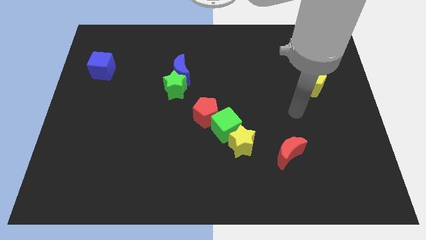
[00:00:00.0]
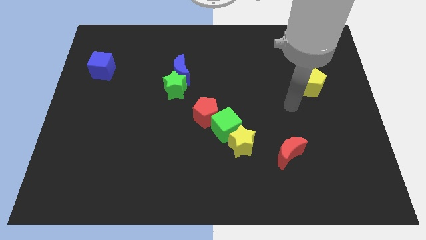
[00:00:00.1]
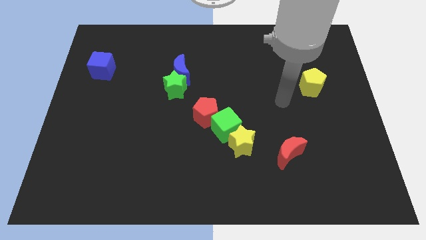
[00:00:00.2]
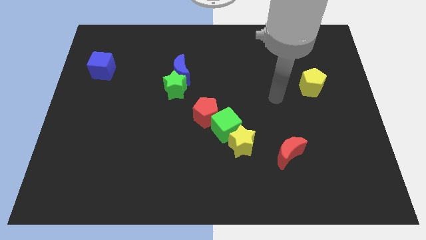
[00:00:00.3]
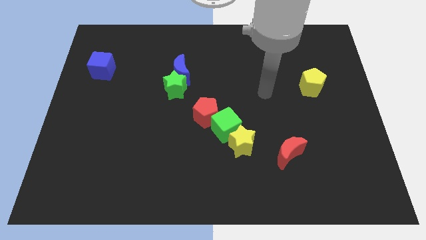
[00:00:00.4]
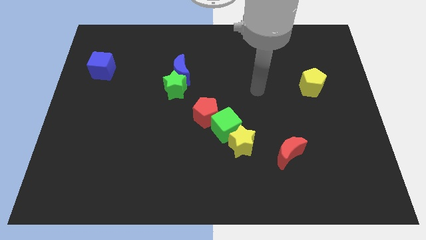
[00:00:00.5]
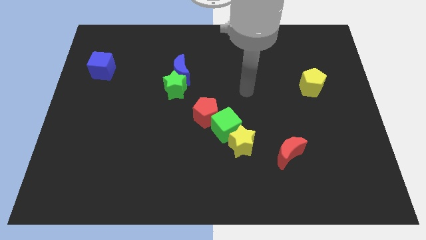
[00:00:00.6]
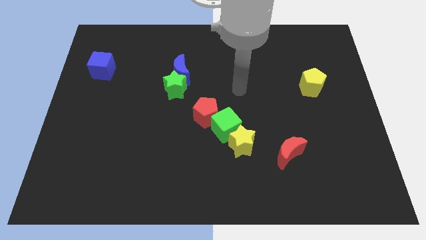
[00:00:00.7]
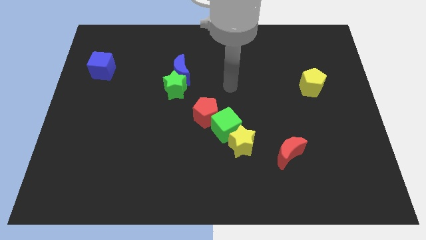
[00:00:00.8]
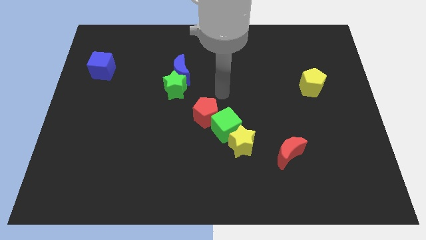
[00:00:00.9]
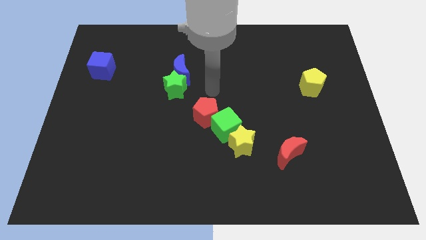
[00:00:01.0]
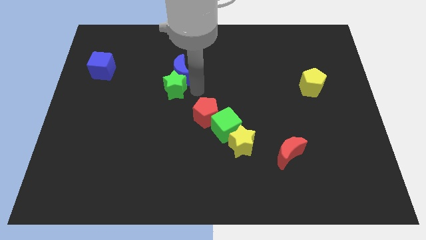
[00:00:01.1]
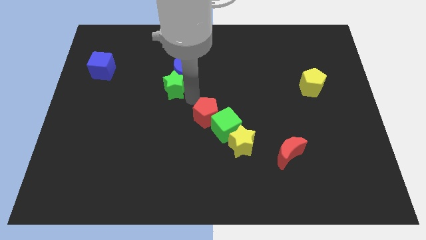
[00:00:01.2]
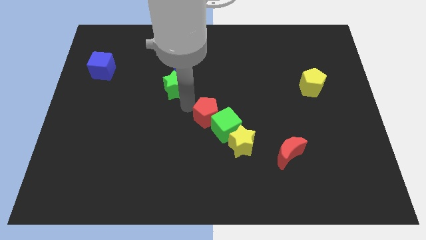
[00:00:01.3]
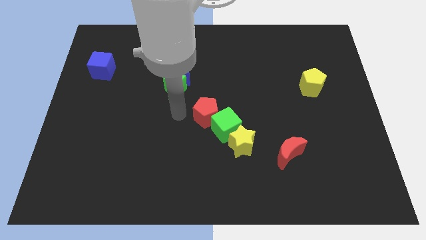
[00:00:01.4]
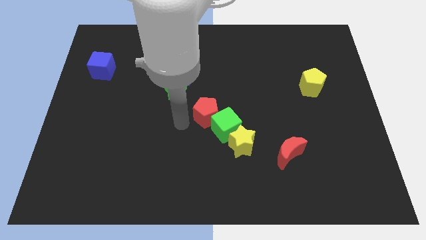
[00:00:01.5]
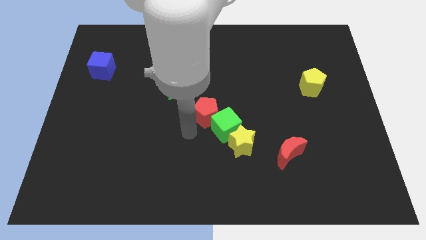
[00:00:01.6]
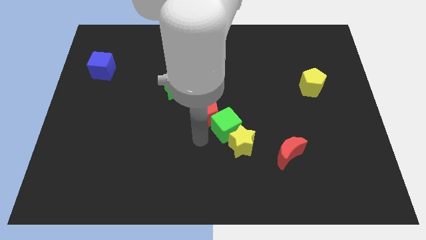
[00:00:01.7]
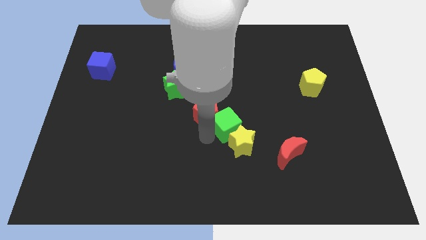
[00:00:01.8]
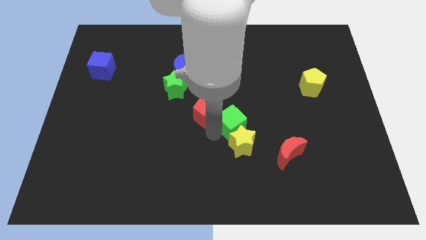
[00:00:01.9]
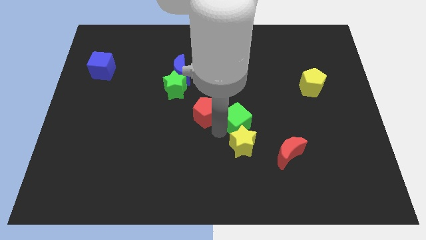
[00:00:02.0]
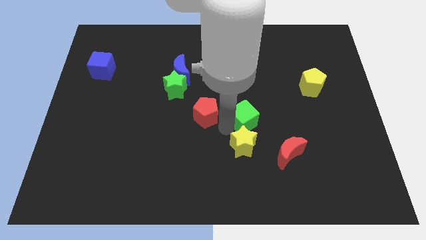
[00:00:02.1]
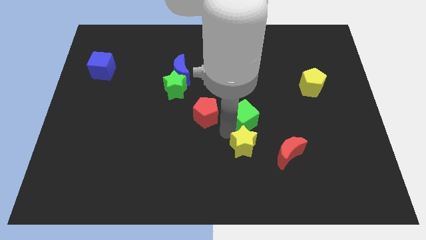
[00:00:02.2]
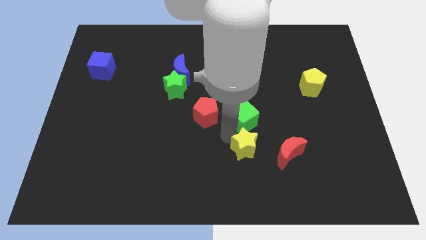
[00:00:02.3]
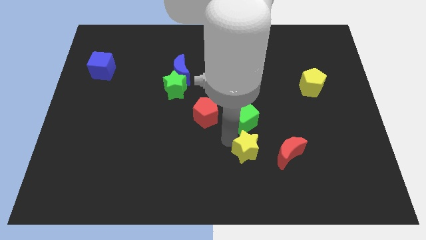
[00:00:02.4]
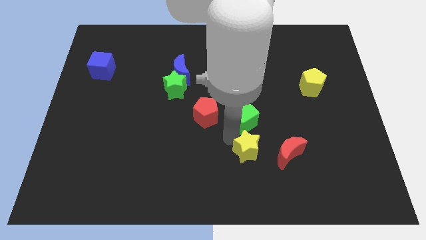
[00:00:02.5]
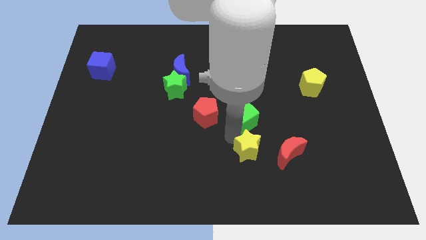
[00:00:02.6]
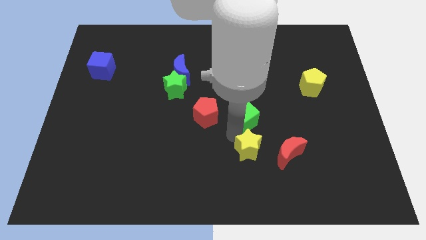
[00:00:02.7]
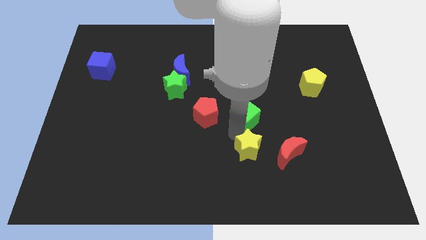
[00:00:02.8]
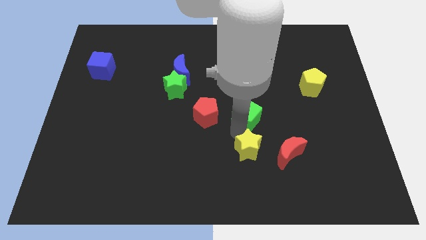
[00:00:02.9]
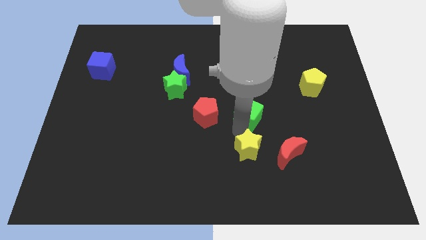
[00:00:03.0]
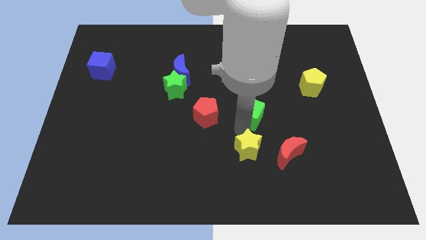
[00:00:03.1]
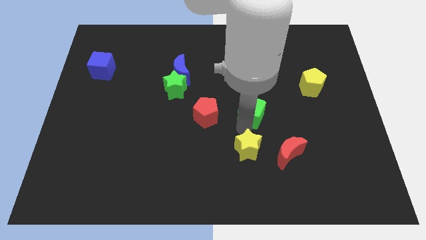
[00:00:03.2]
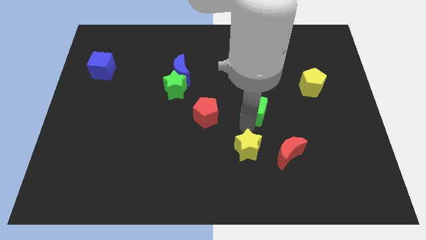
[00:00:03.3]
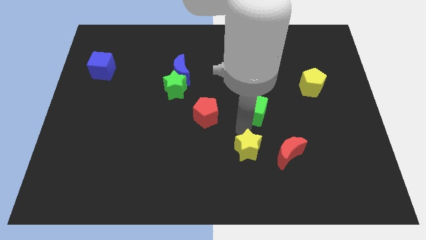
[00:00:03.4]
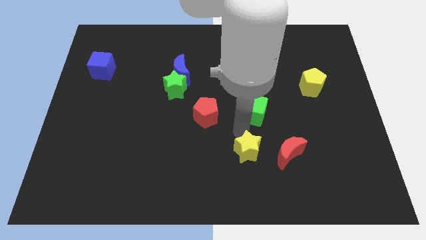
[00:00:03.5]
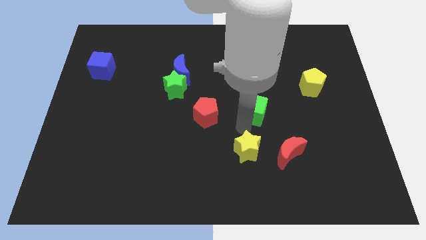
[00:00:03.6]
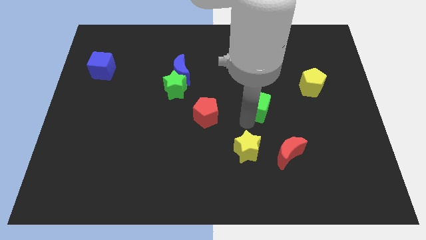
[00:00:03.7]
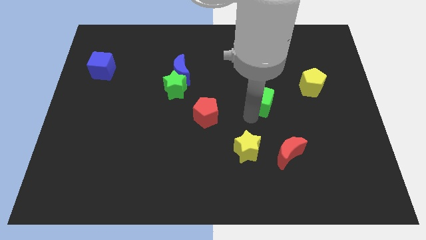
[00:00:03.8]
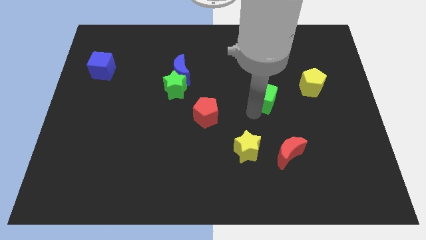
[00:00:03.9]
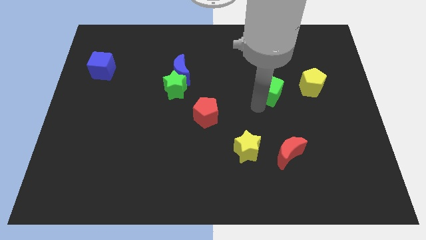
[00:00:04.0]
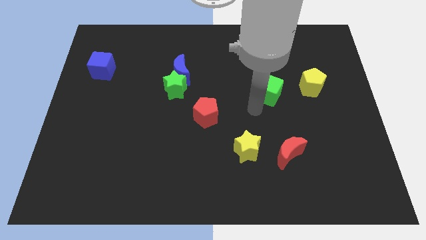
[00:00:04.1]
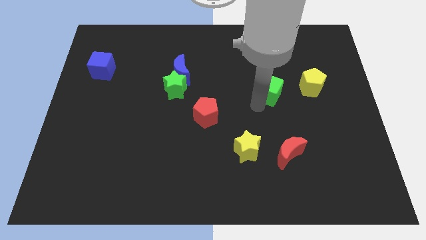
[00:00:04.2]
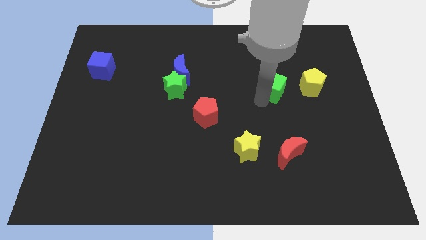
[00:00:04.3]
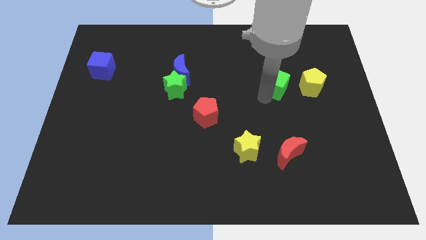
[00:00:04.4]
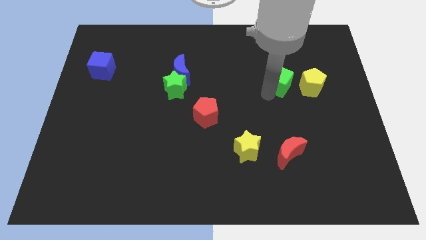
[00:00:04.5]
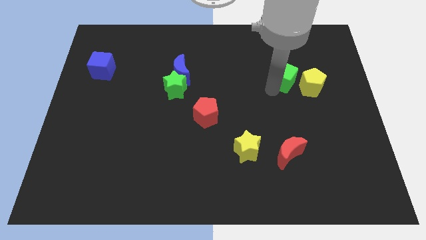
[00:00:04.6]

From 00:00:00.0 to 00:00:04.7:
move the green cube up and right diagonally

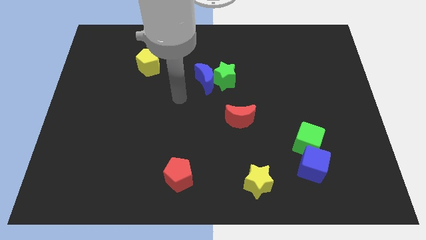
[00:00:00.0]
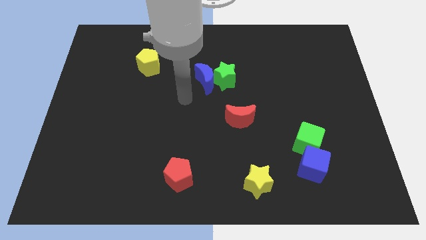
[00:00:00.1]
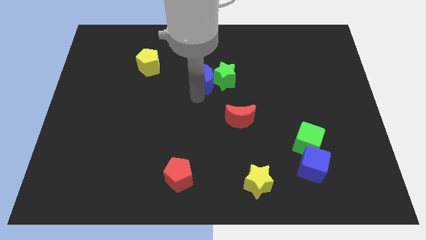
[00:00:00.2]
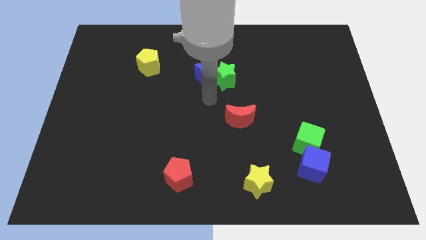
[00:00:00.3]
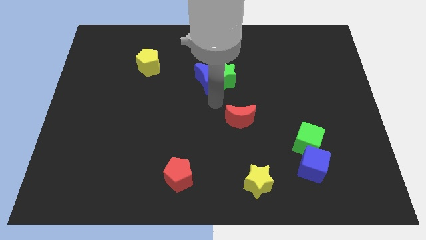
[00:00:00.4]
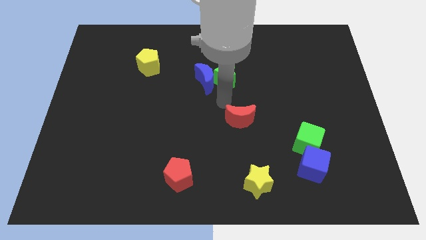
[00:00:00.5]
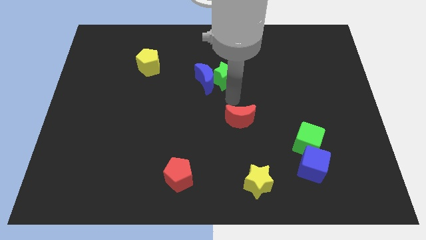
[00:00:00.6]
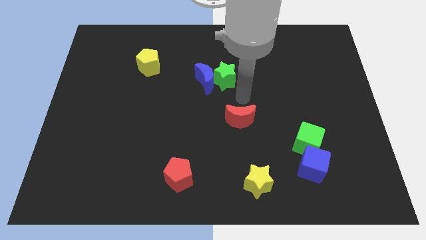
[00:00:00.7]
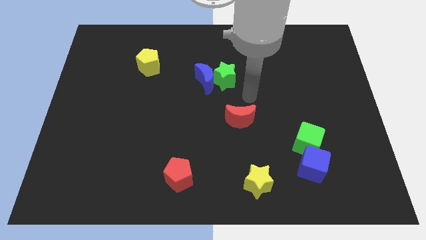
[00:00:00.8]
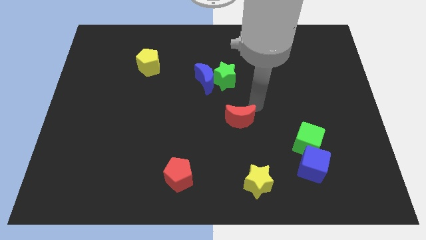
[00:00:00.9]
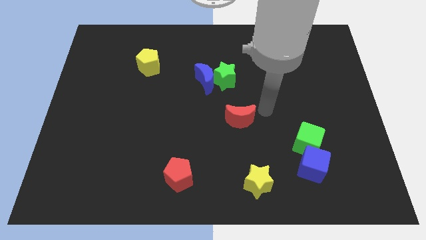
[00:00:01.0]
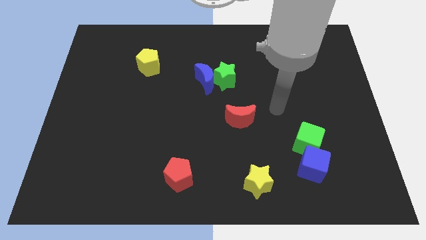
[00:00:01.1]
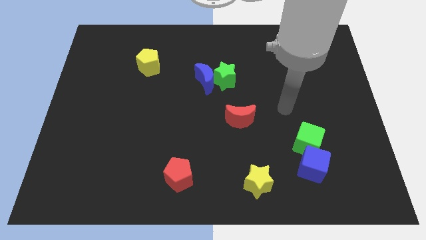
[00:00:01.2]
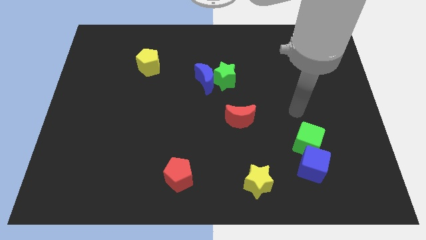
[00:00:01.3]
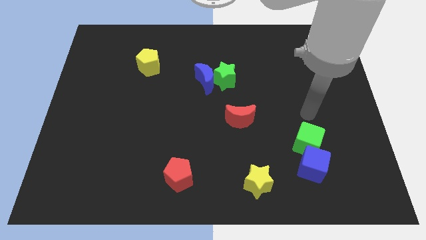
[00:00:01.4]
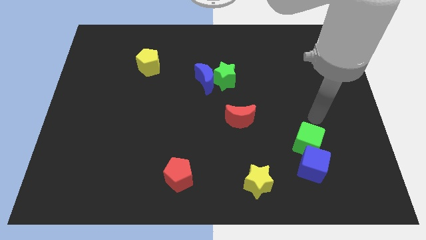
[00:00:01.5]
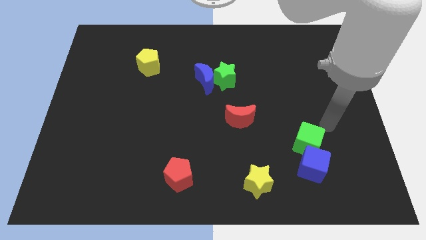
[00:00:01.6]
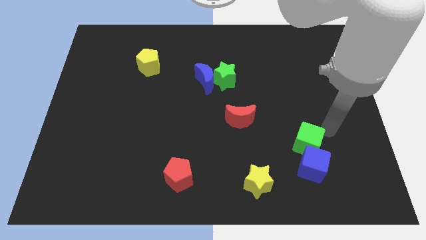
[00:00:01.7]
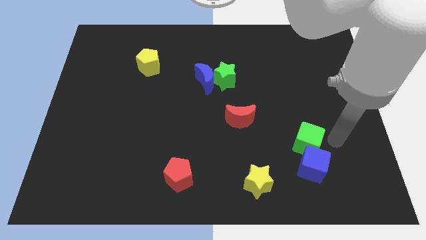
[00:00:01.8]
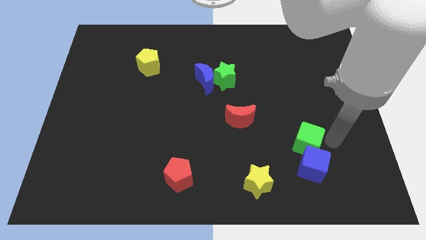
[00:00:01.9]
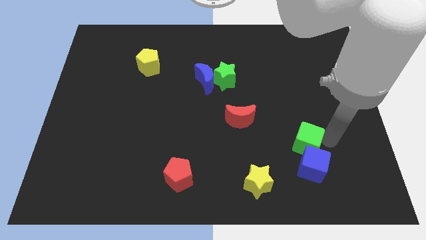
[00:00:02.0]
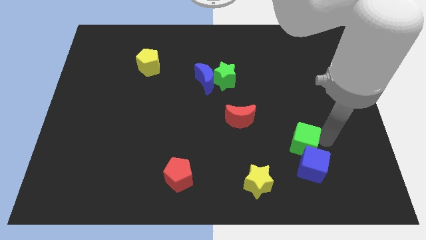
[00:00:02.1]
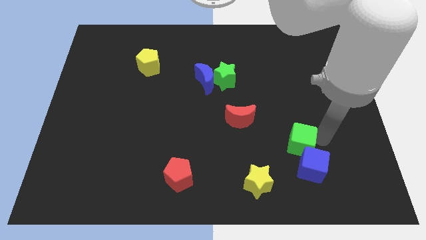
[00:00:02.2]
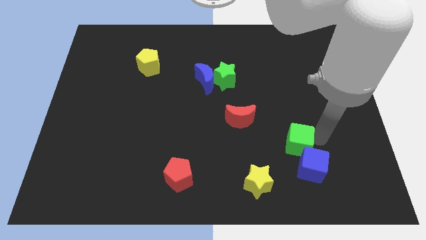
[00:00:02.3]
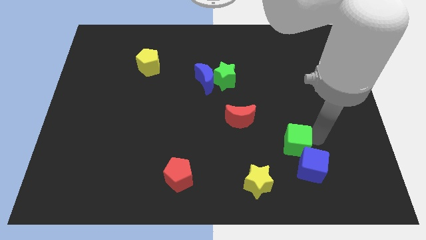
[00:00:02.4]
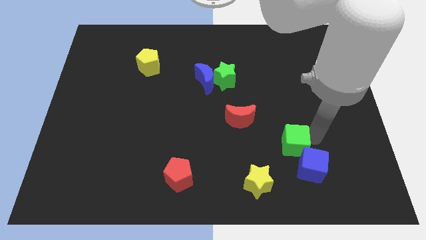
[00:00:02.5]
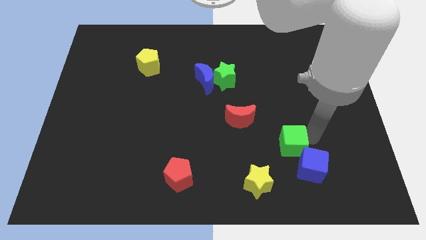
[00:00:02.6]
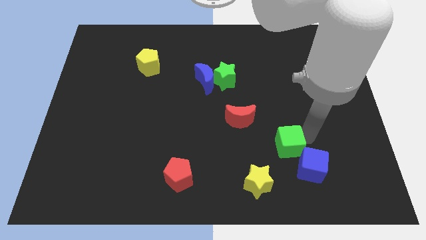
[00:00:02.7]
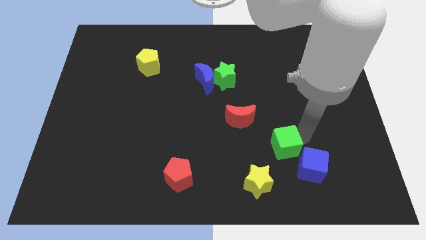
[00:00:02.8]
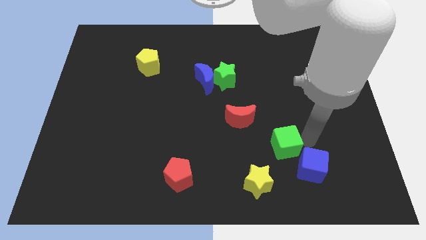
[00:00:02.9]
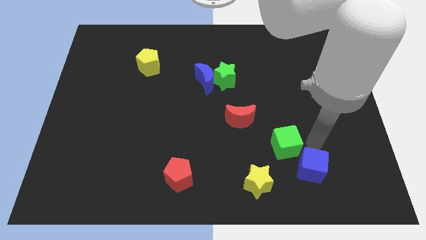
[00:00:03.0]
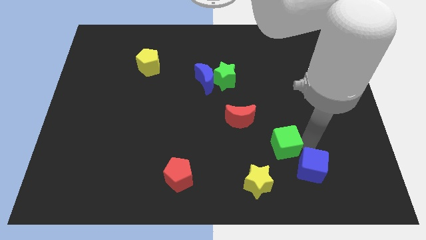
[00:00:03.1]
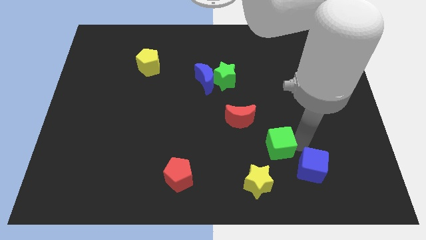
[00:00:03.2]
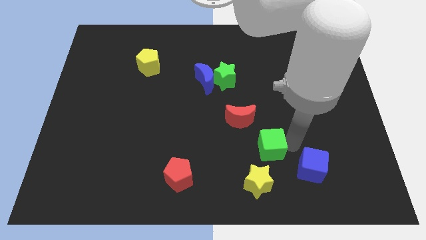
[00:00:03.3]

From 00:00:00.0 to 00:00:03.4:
move the green cube to the left a little bit

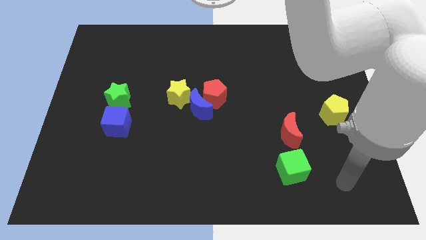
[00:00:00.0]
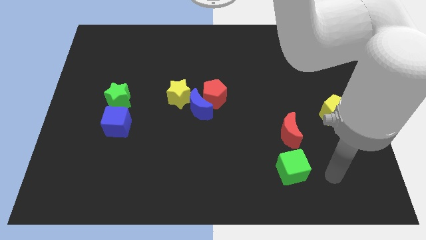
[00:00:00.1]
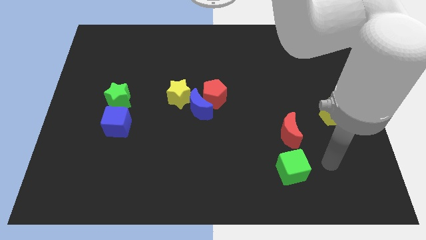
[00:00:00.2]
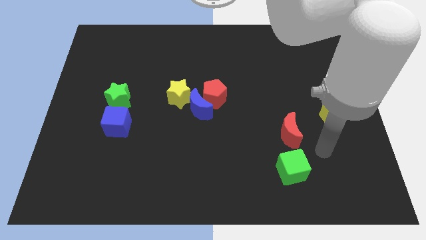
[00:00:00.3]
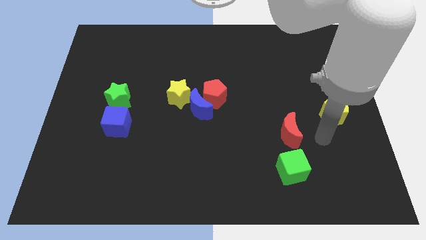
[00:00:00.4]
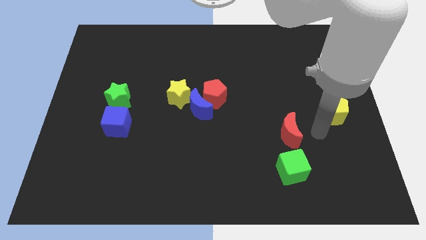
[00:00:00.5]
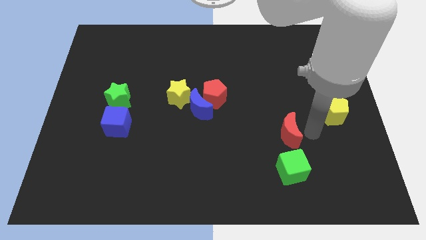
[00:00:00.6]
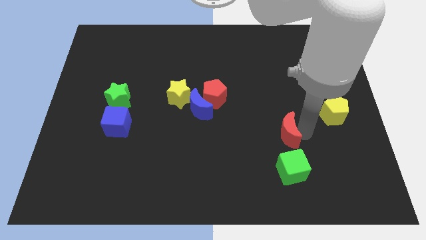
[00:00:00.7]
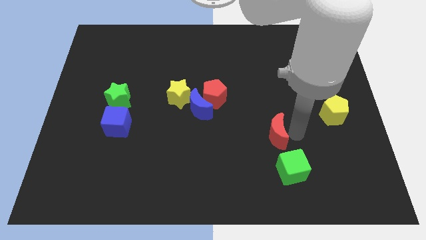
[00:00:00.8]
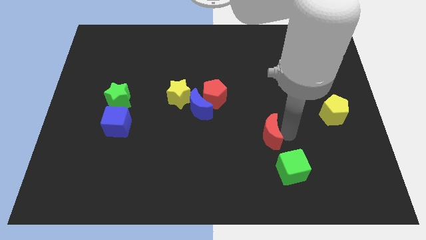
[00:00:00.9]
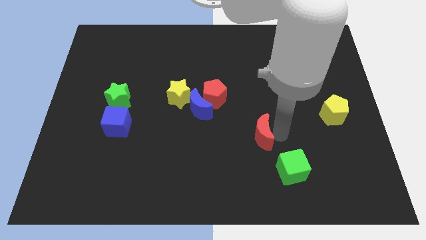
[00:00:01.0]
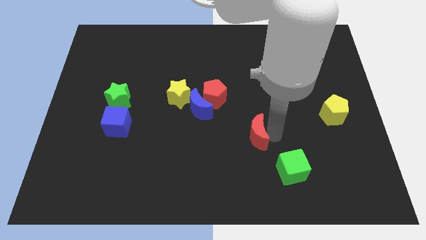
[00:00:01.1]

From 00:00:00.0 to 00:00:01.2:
slightly slide the red moon to the left
